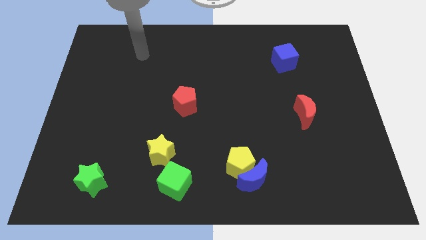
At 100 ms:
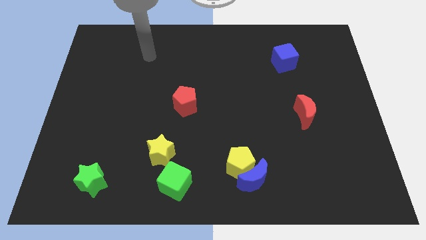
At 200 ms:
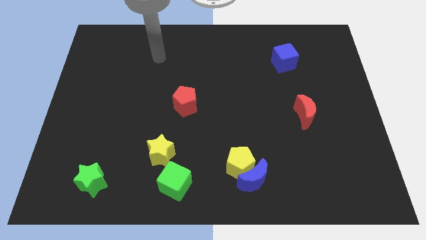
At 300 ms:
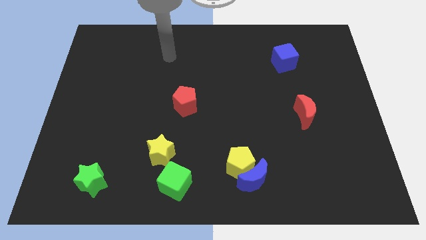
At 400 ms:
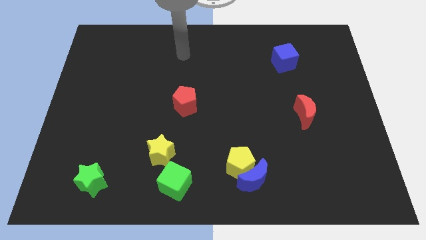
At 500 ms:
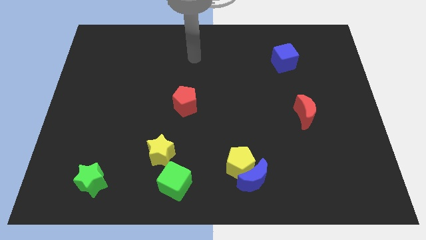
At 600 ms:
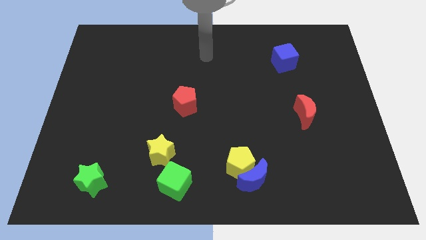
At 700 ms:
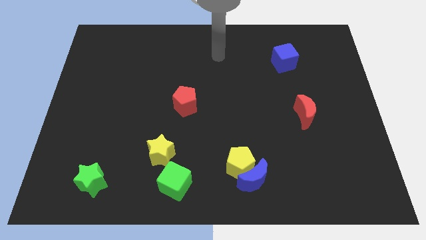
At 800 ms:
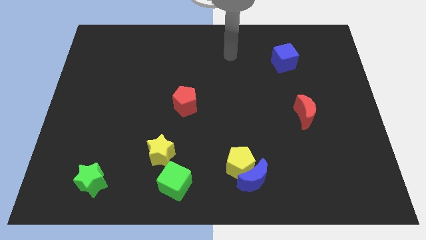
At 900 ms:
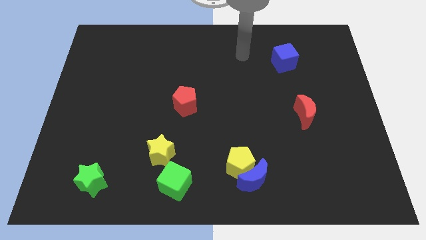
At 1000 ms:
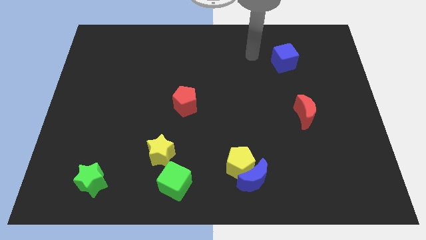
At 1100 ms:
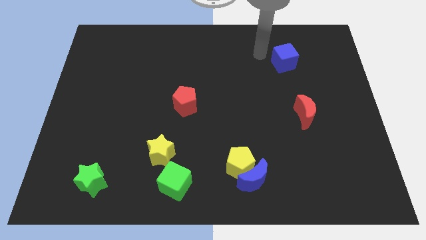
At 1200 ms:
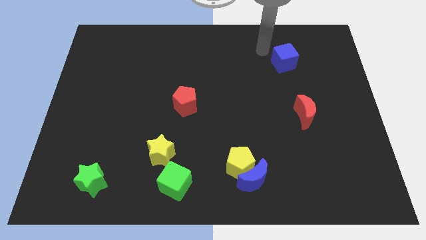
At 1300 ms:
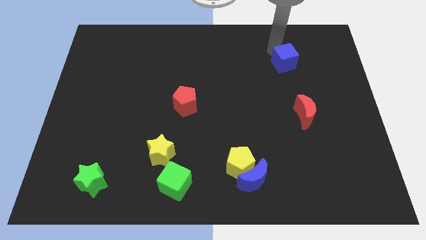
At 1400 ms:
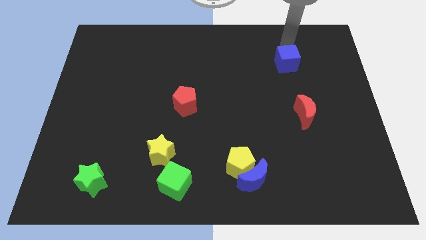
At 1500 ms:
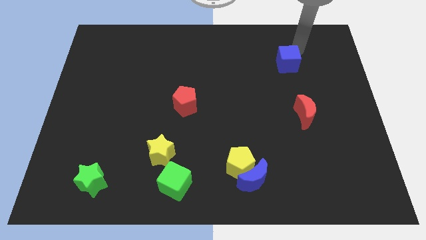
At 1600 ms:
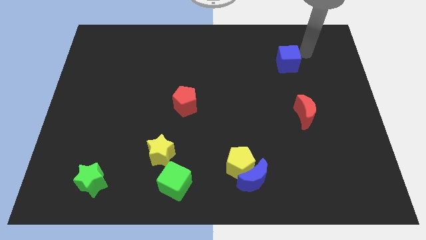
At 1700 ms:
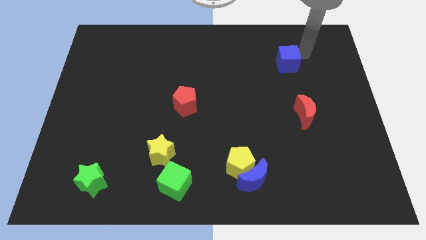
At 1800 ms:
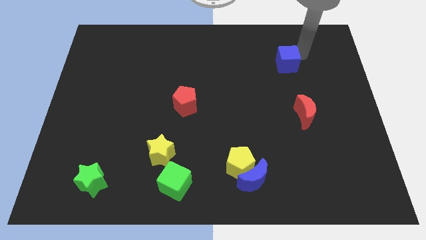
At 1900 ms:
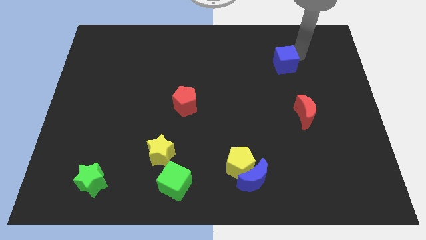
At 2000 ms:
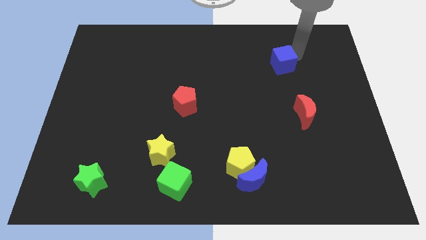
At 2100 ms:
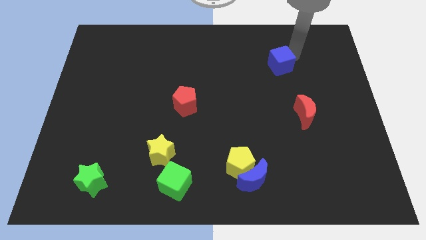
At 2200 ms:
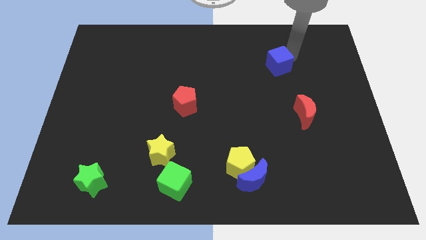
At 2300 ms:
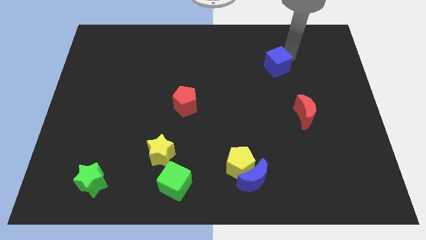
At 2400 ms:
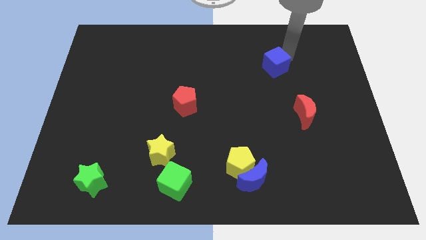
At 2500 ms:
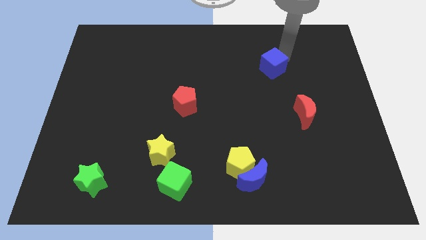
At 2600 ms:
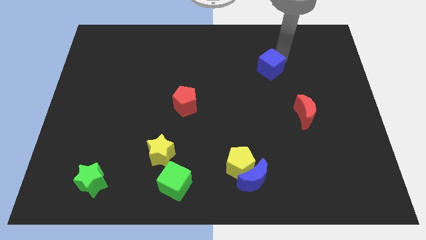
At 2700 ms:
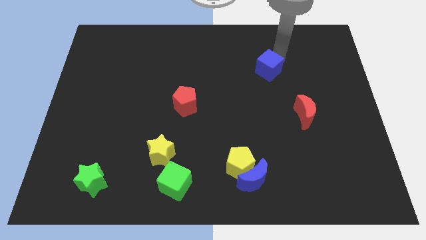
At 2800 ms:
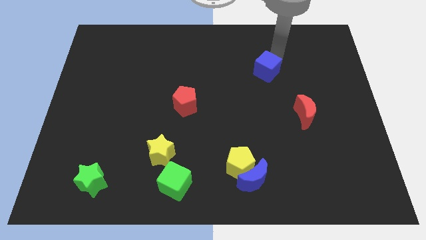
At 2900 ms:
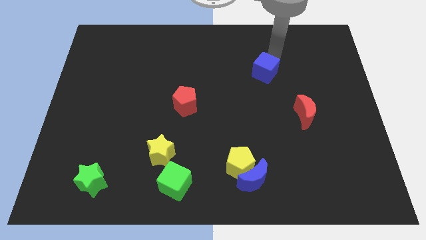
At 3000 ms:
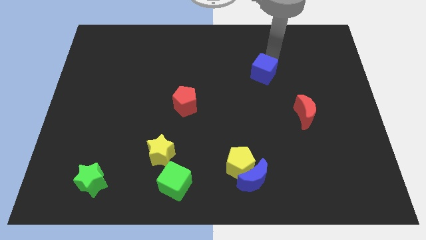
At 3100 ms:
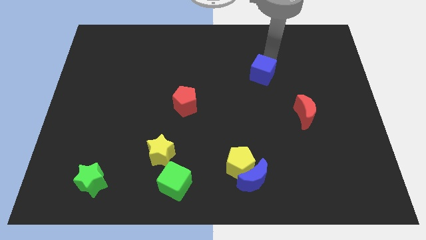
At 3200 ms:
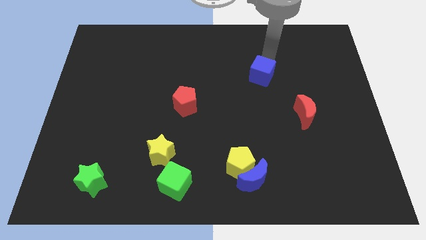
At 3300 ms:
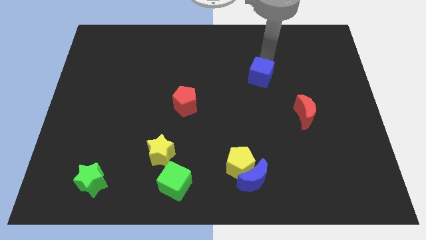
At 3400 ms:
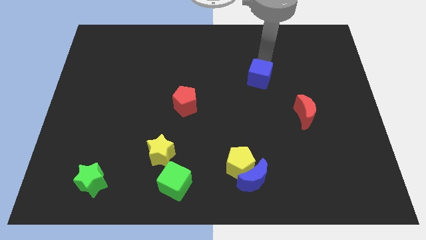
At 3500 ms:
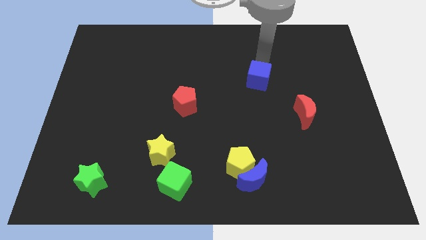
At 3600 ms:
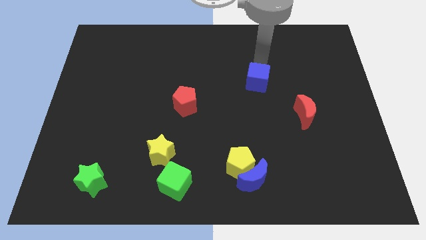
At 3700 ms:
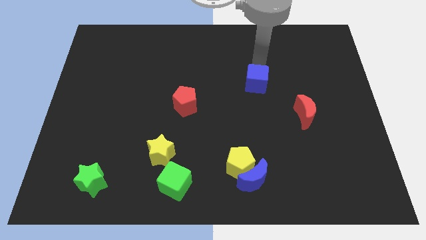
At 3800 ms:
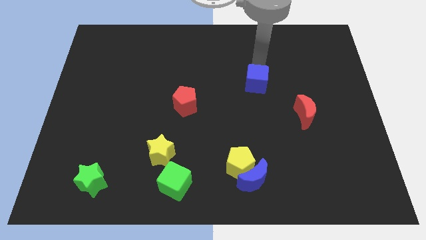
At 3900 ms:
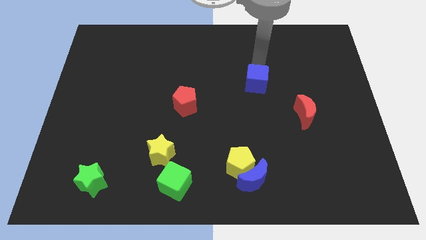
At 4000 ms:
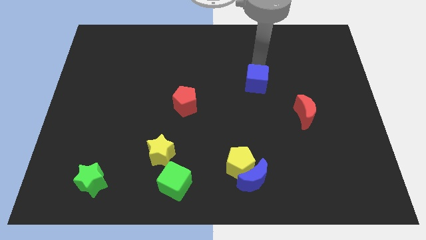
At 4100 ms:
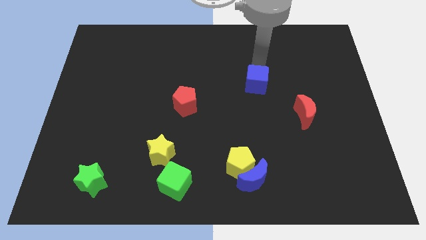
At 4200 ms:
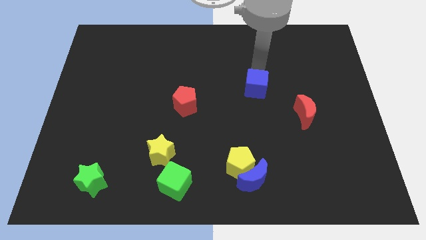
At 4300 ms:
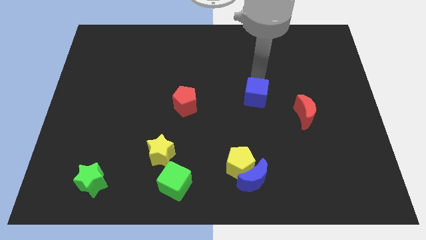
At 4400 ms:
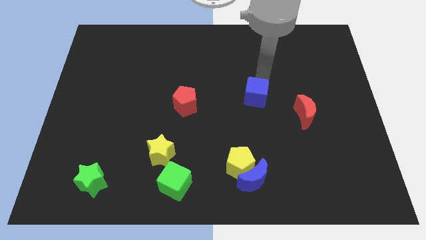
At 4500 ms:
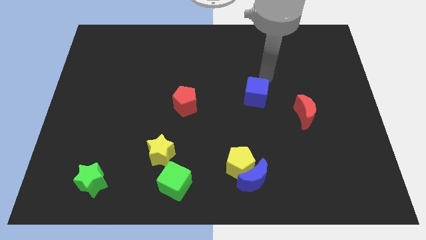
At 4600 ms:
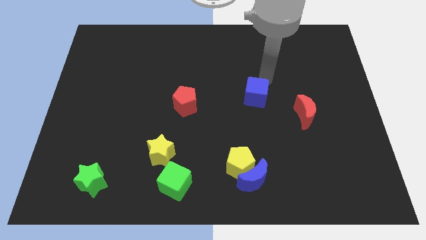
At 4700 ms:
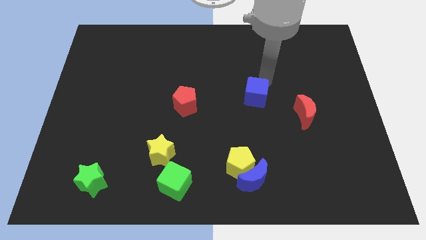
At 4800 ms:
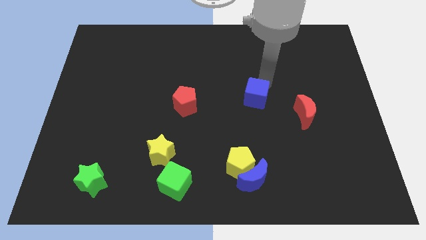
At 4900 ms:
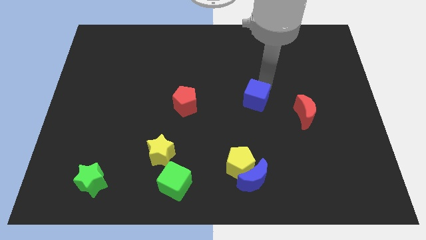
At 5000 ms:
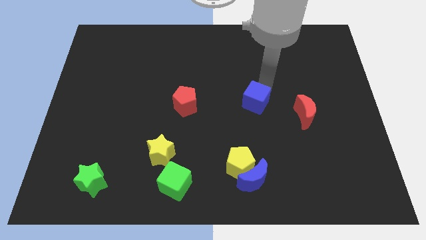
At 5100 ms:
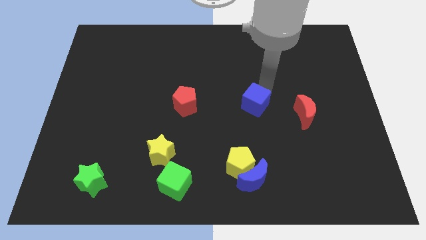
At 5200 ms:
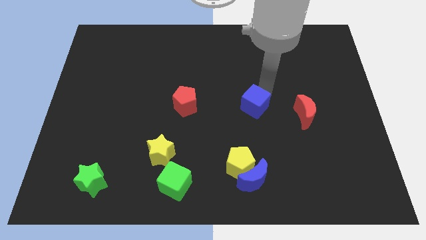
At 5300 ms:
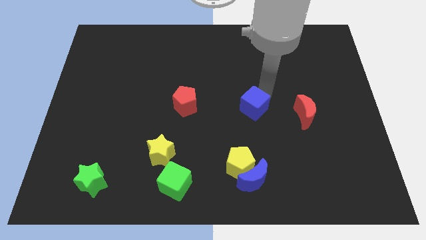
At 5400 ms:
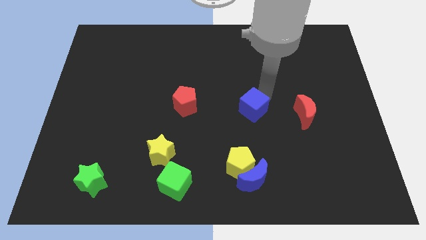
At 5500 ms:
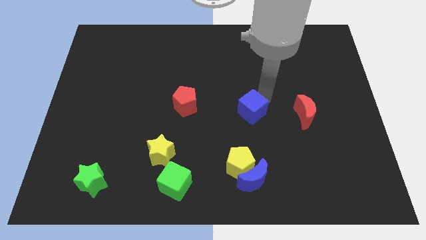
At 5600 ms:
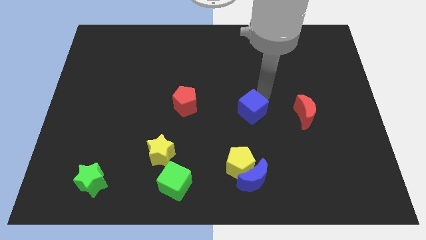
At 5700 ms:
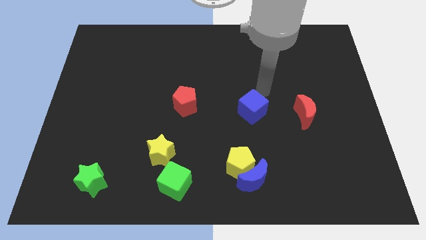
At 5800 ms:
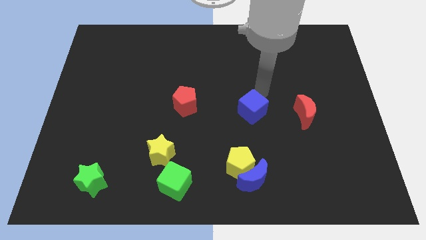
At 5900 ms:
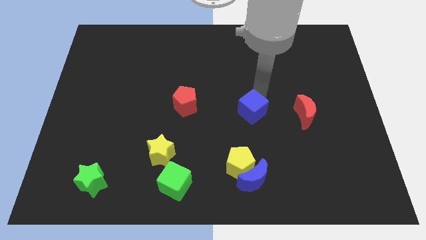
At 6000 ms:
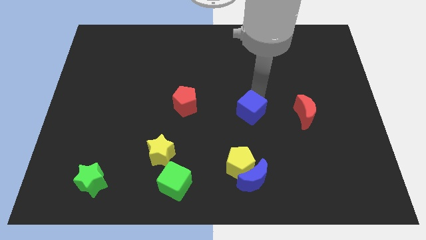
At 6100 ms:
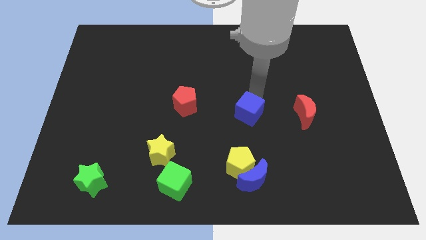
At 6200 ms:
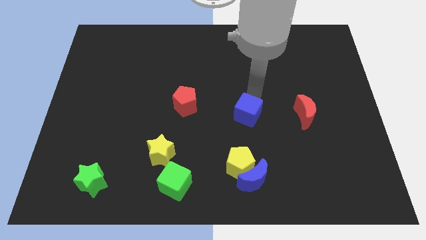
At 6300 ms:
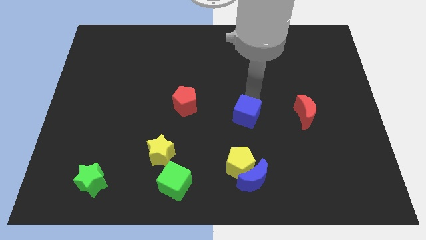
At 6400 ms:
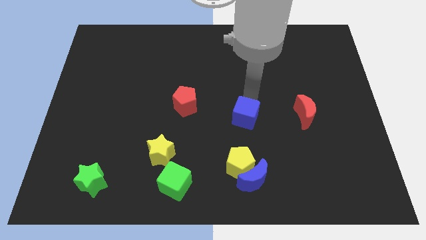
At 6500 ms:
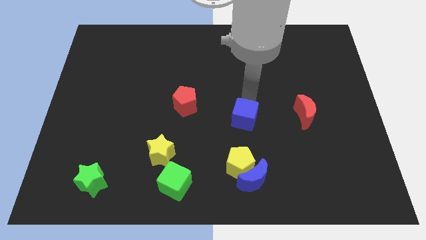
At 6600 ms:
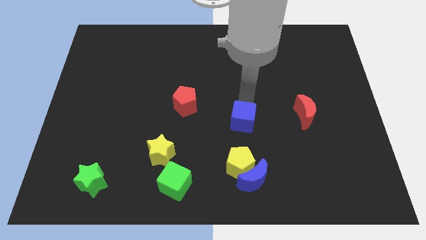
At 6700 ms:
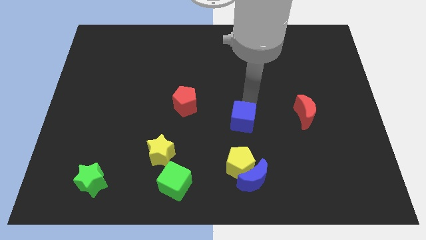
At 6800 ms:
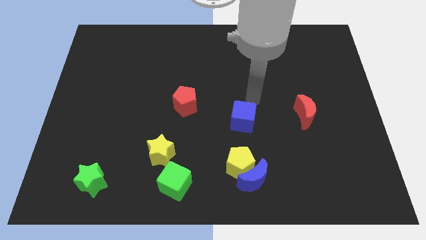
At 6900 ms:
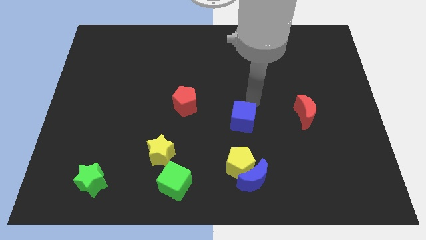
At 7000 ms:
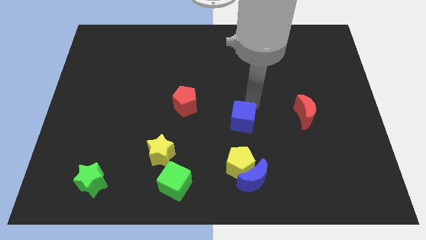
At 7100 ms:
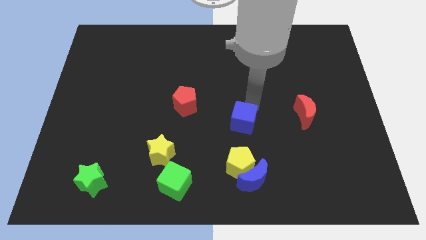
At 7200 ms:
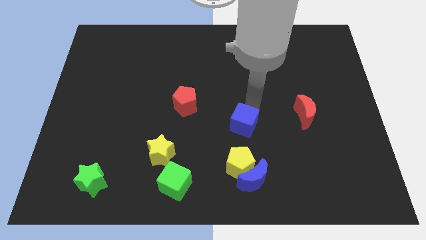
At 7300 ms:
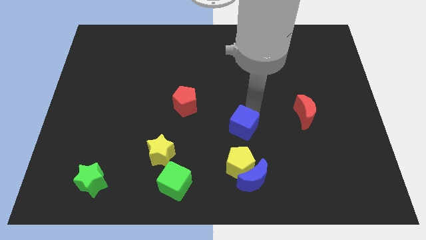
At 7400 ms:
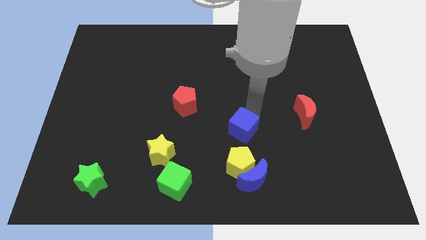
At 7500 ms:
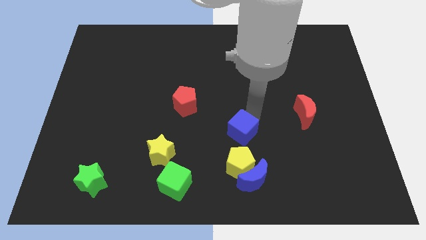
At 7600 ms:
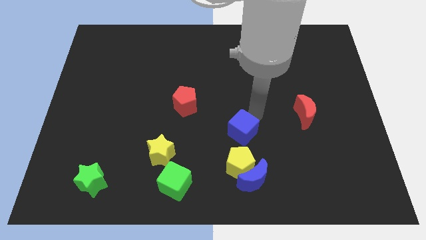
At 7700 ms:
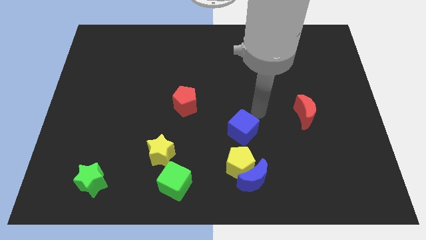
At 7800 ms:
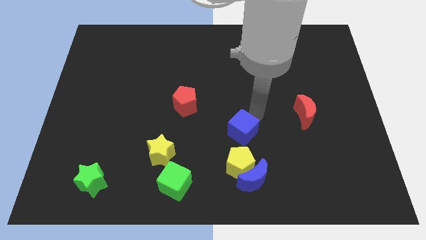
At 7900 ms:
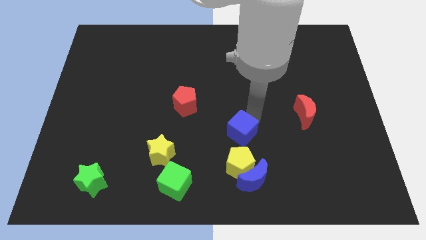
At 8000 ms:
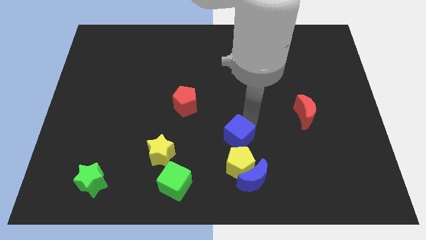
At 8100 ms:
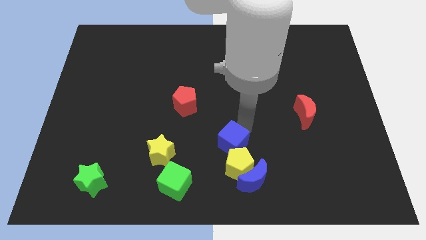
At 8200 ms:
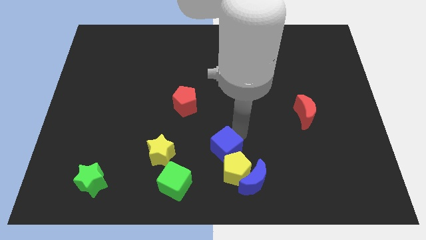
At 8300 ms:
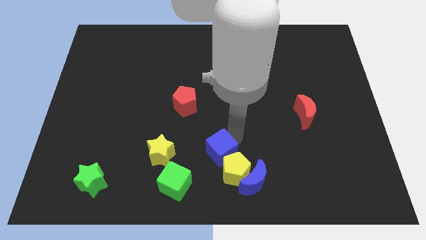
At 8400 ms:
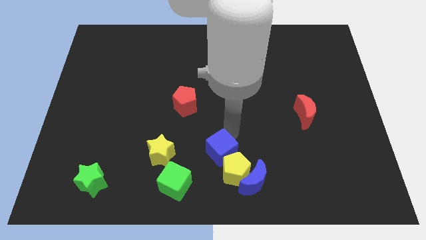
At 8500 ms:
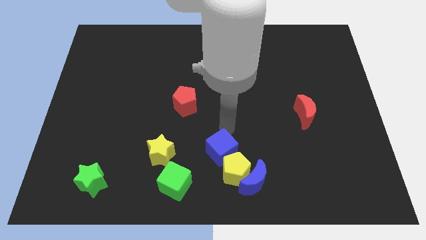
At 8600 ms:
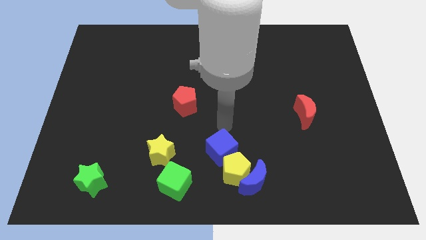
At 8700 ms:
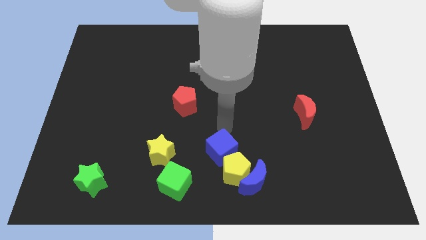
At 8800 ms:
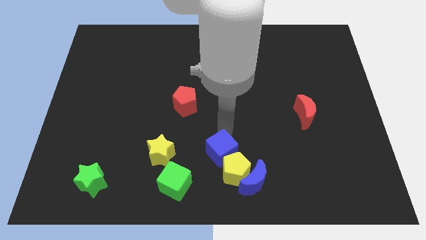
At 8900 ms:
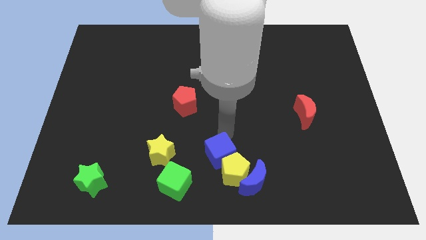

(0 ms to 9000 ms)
put the blue cube to the bottom side
